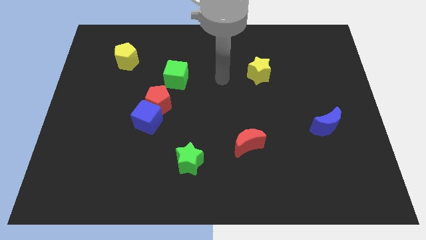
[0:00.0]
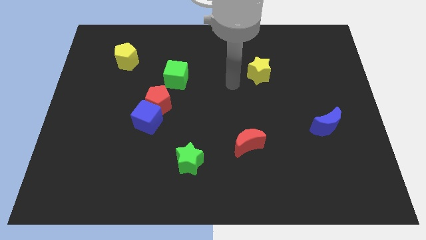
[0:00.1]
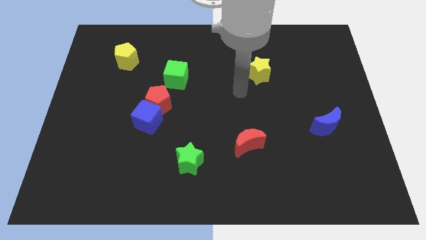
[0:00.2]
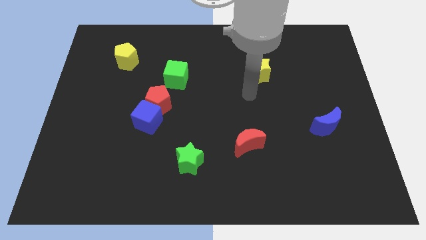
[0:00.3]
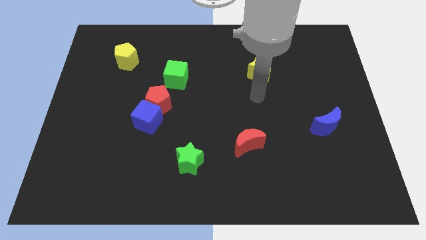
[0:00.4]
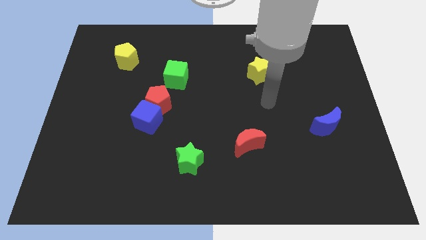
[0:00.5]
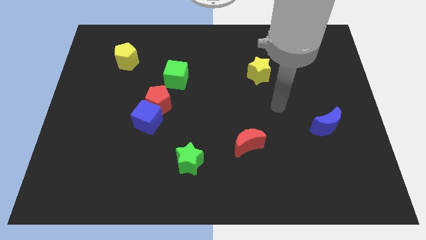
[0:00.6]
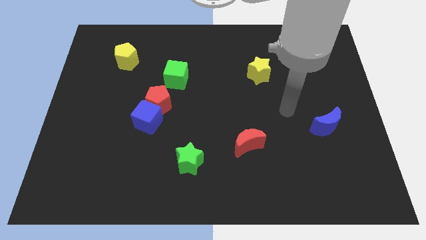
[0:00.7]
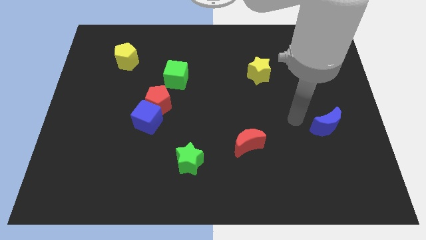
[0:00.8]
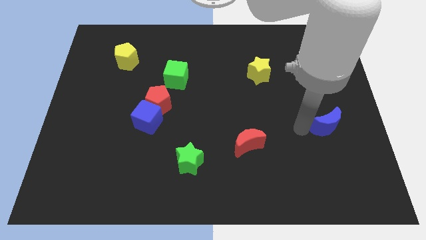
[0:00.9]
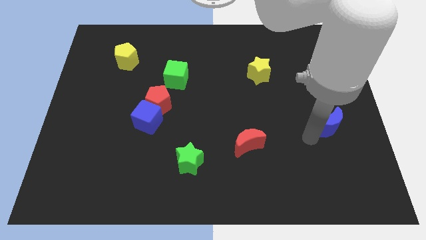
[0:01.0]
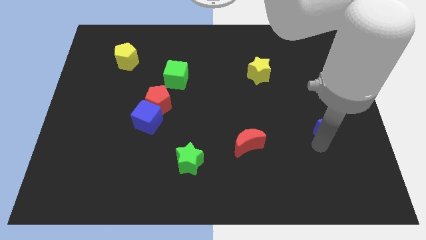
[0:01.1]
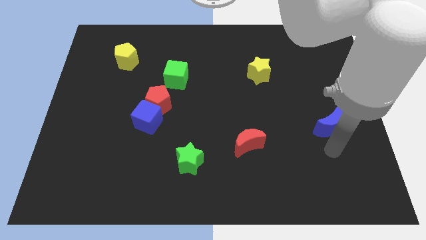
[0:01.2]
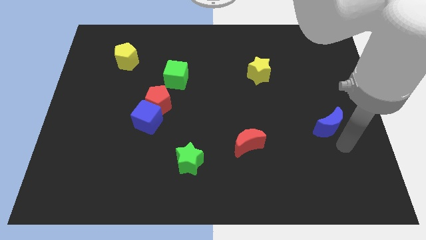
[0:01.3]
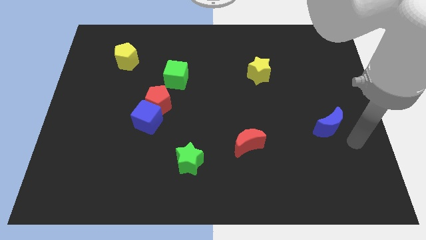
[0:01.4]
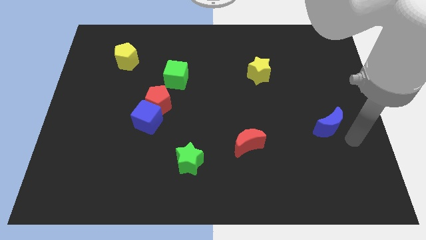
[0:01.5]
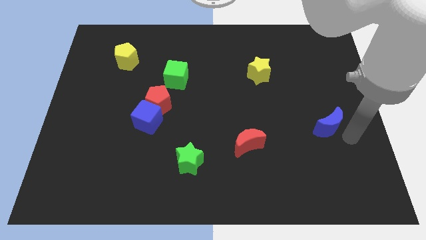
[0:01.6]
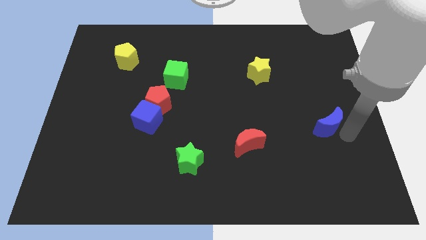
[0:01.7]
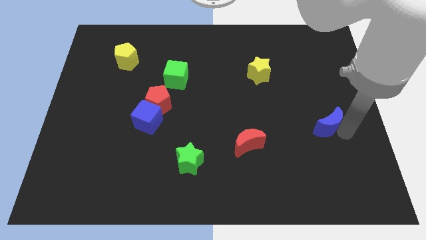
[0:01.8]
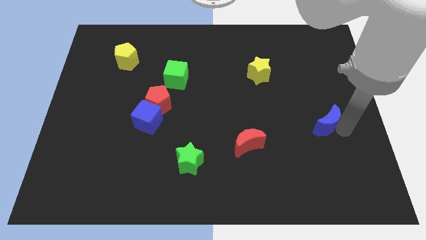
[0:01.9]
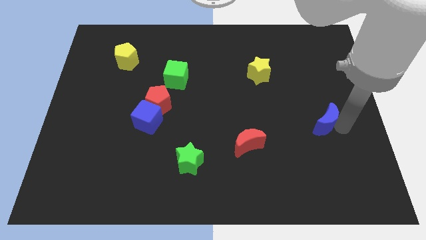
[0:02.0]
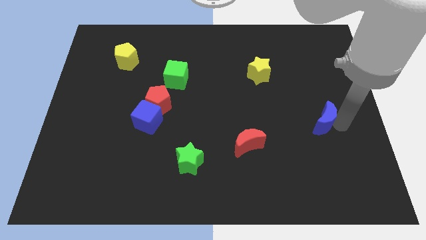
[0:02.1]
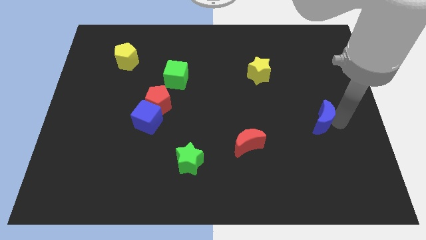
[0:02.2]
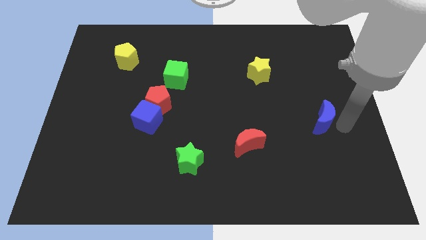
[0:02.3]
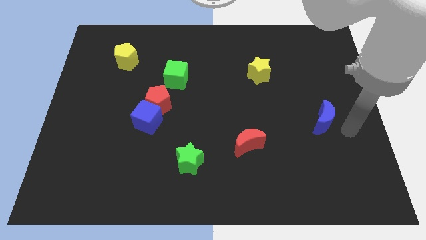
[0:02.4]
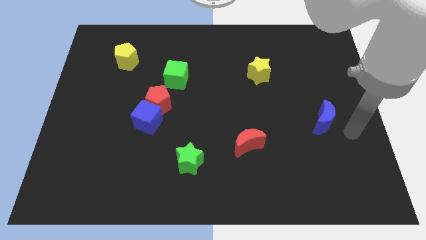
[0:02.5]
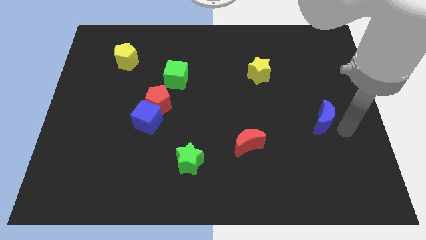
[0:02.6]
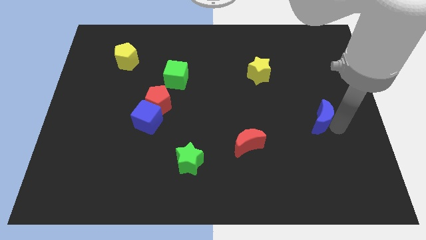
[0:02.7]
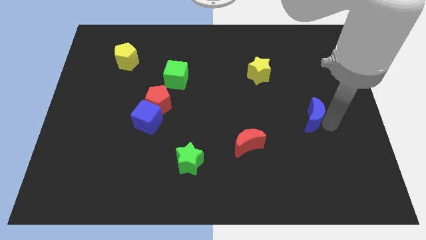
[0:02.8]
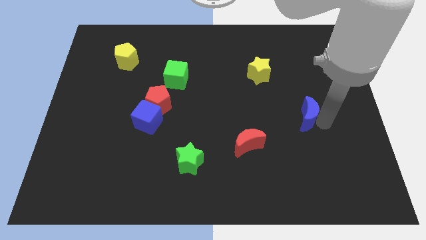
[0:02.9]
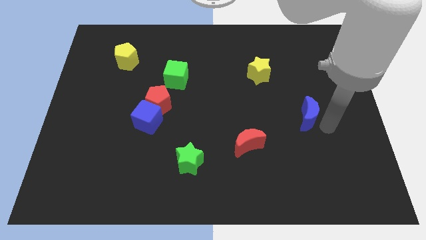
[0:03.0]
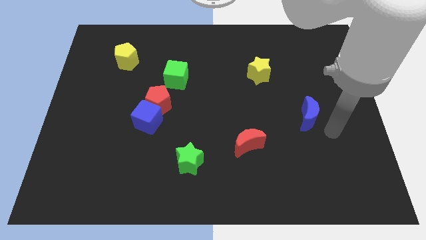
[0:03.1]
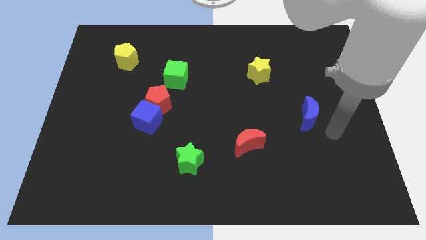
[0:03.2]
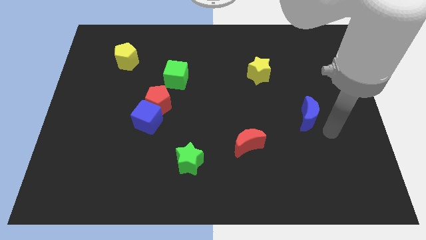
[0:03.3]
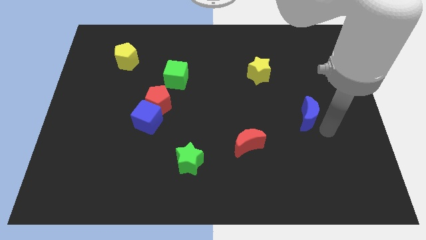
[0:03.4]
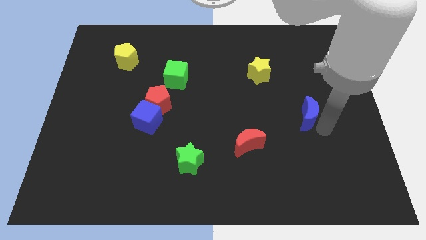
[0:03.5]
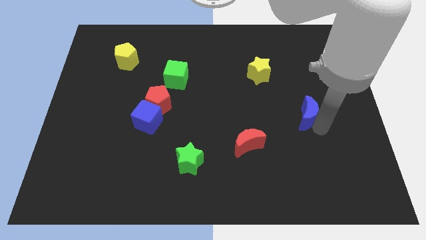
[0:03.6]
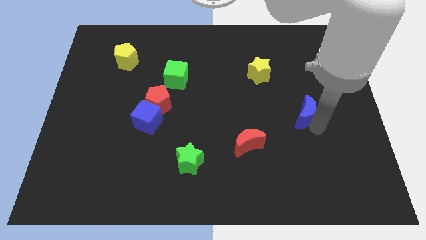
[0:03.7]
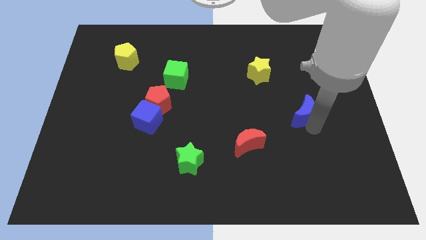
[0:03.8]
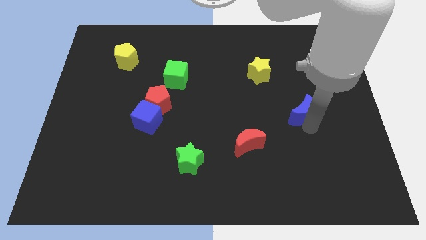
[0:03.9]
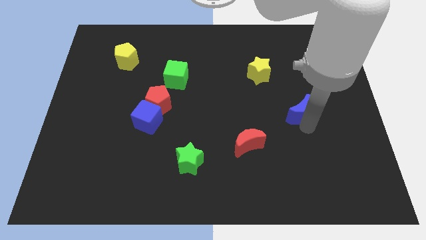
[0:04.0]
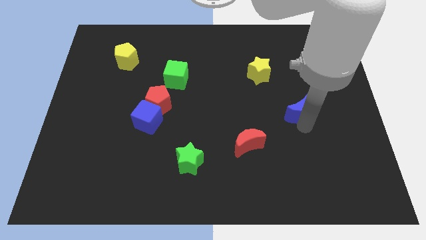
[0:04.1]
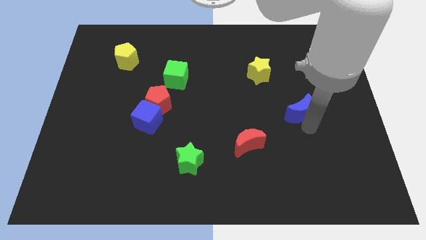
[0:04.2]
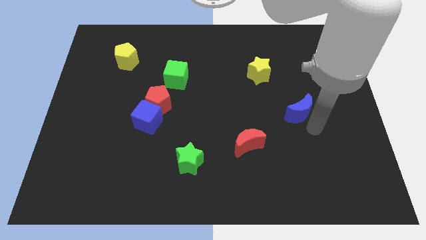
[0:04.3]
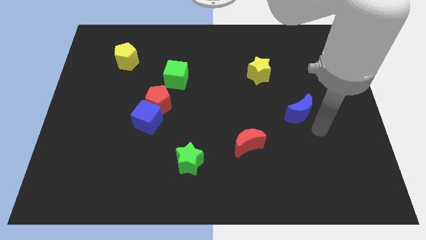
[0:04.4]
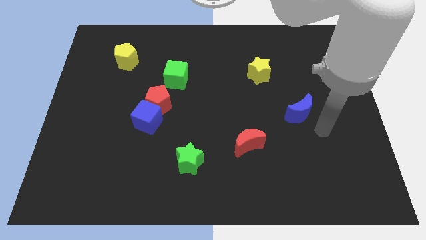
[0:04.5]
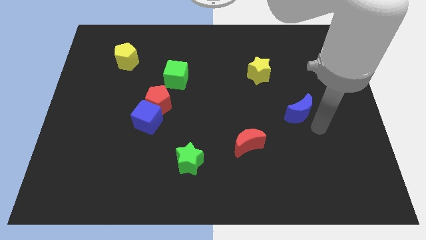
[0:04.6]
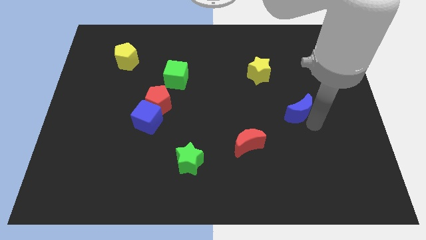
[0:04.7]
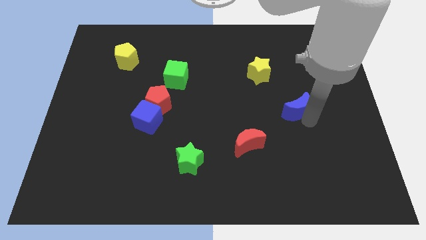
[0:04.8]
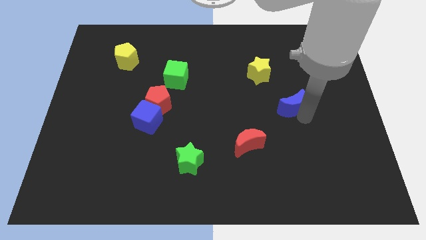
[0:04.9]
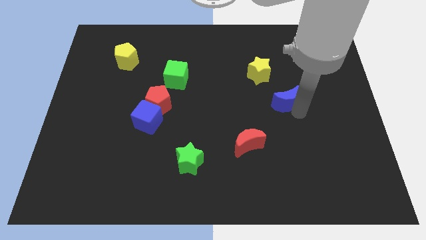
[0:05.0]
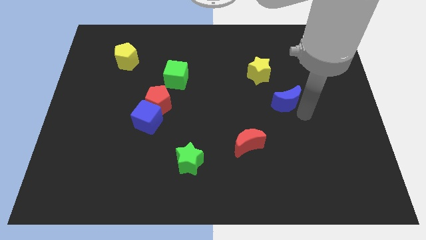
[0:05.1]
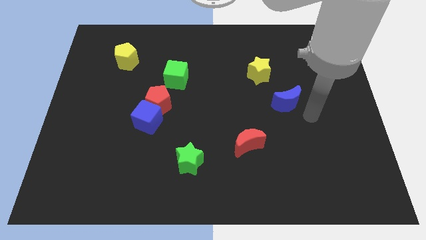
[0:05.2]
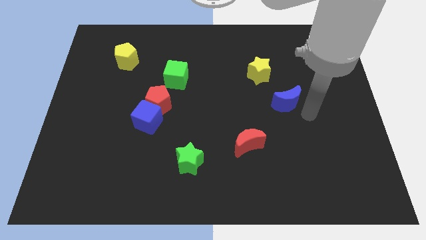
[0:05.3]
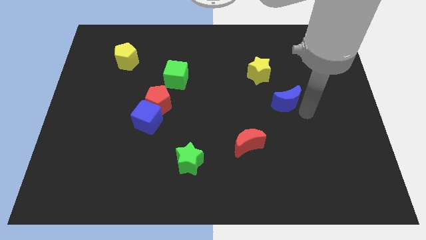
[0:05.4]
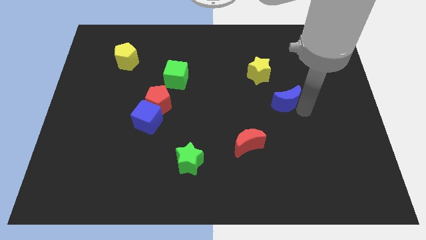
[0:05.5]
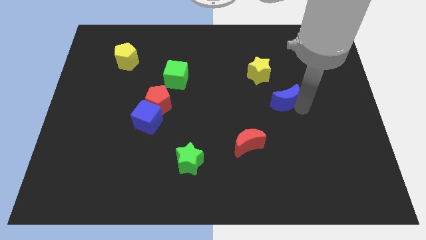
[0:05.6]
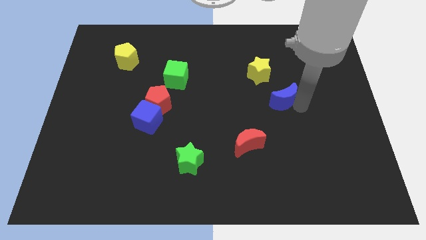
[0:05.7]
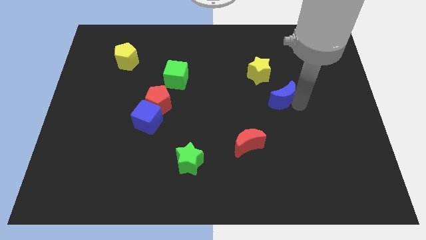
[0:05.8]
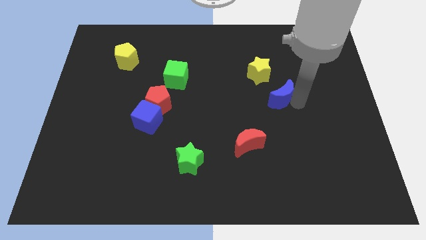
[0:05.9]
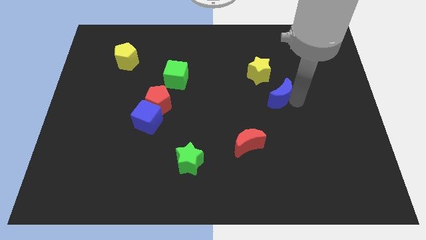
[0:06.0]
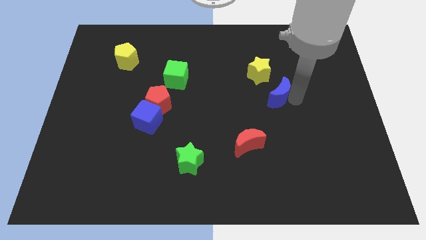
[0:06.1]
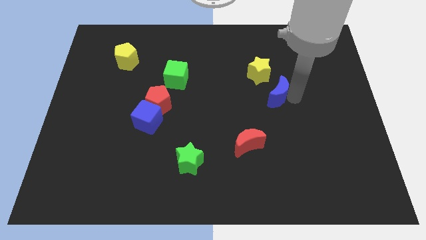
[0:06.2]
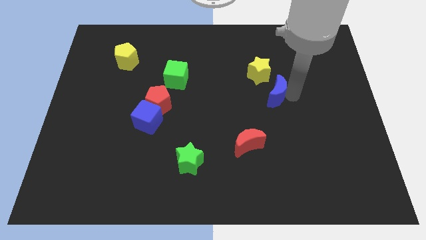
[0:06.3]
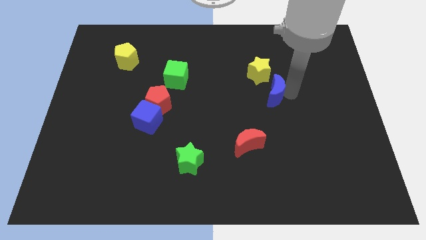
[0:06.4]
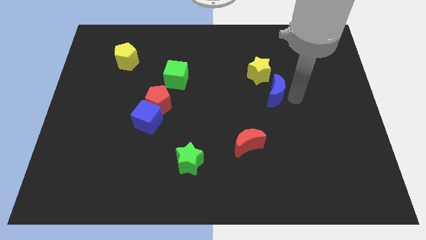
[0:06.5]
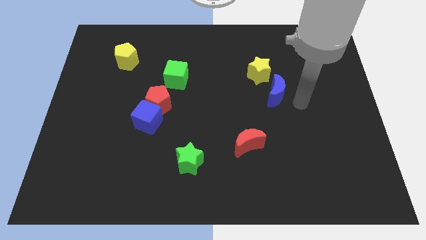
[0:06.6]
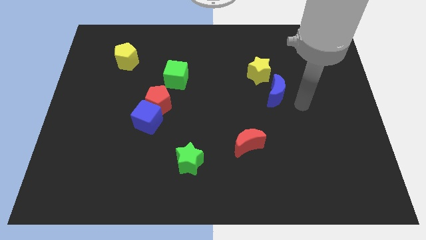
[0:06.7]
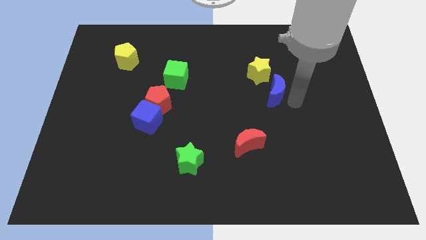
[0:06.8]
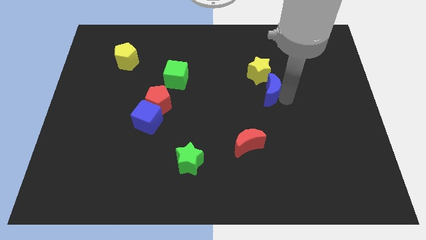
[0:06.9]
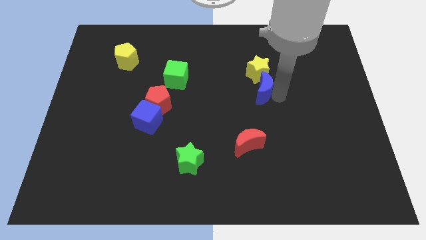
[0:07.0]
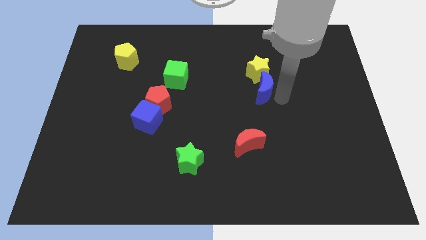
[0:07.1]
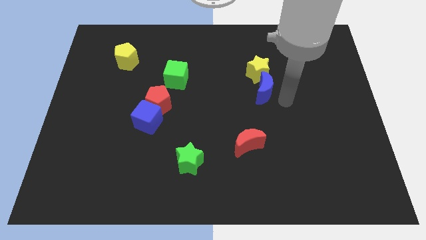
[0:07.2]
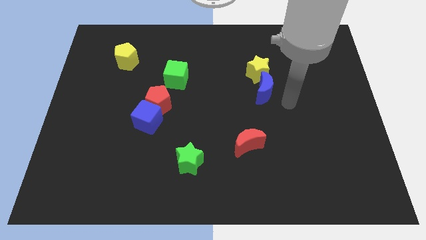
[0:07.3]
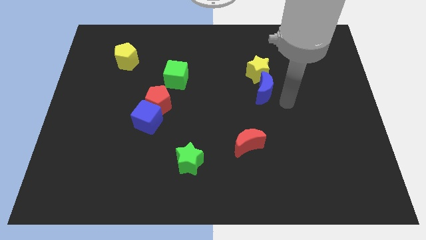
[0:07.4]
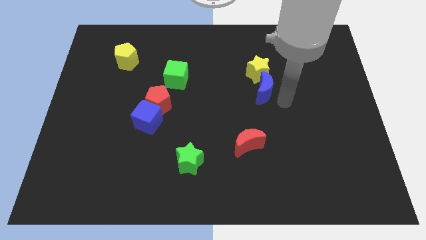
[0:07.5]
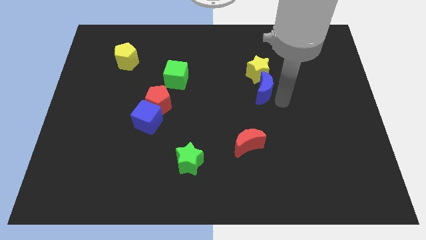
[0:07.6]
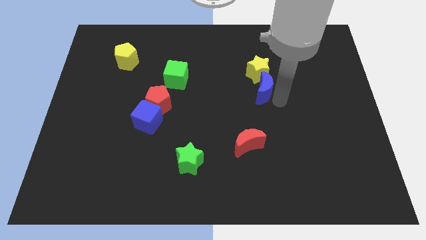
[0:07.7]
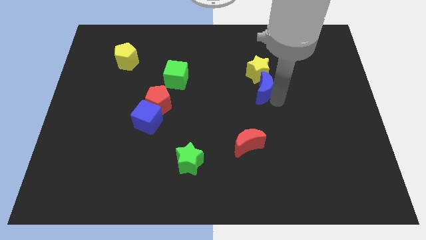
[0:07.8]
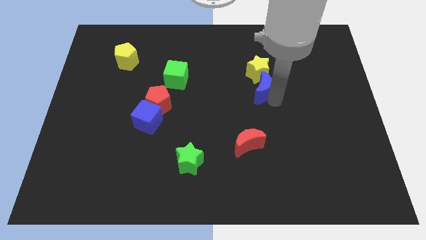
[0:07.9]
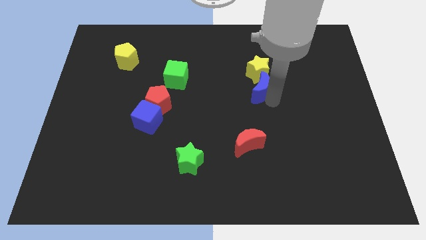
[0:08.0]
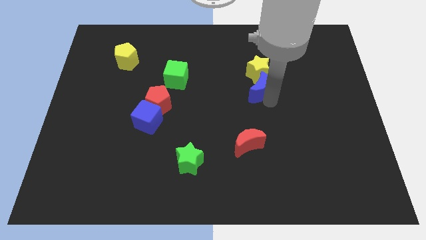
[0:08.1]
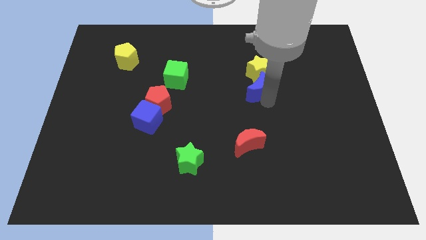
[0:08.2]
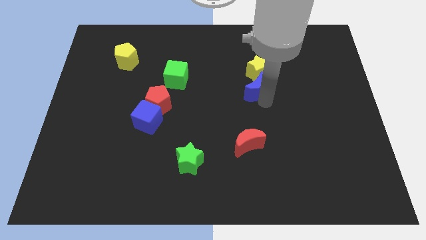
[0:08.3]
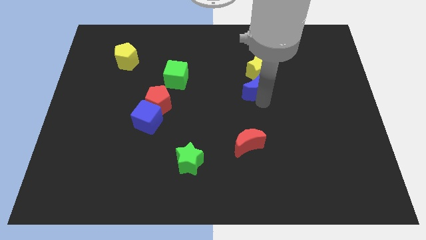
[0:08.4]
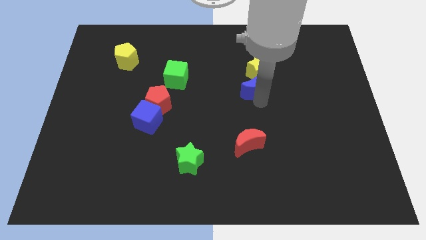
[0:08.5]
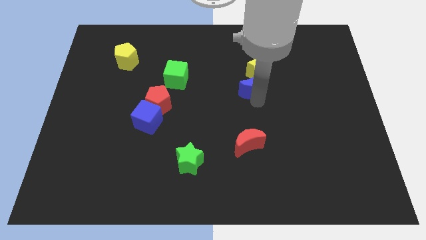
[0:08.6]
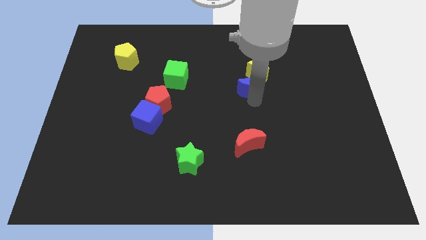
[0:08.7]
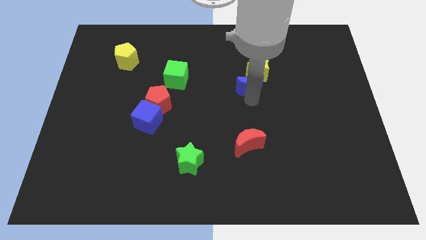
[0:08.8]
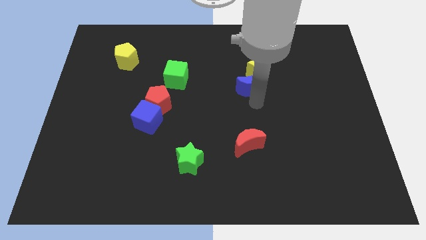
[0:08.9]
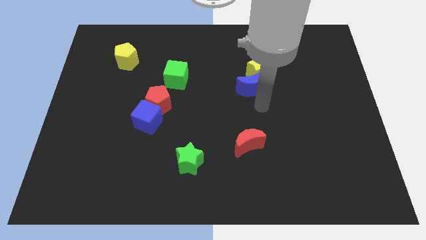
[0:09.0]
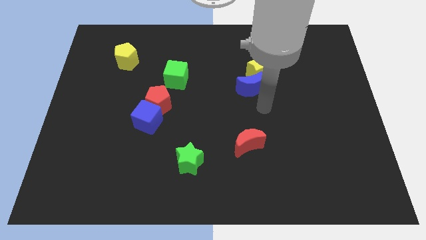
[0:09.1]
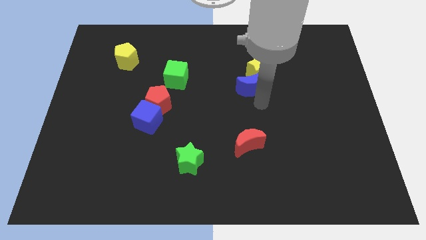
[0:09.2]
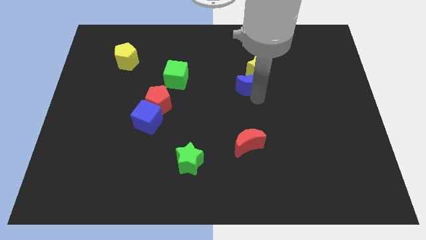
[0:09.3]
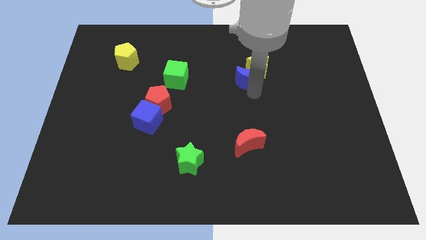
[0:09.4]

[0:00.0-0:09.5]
push the blue moon diagonally up and to the left
